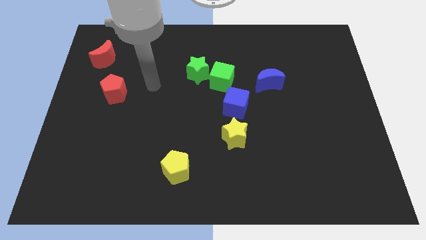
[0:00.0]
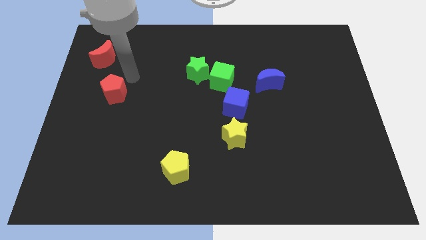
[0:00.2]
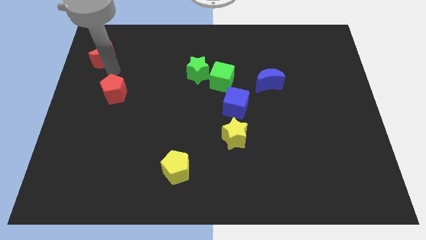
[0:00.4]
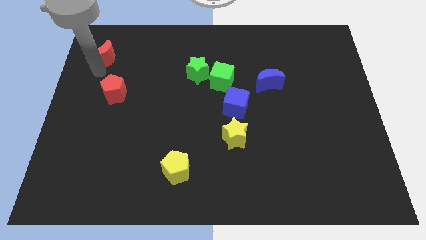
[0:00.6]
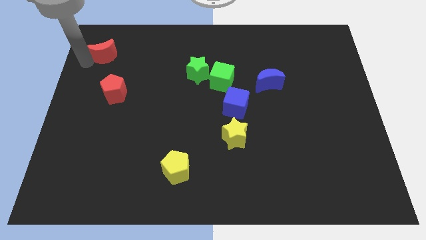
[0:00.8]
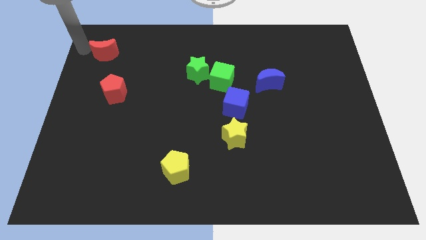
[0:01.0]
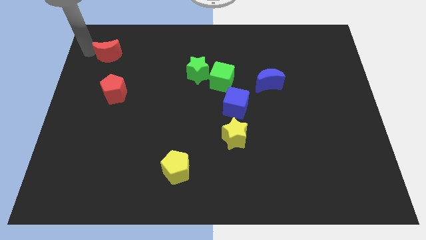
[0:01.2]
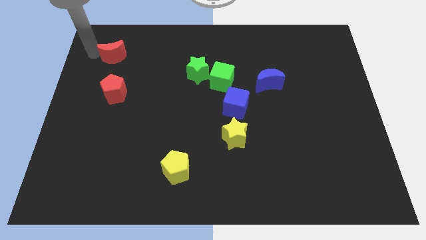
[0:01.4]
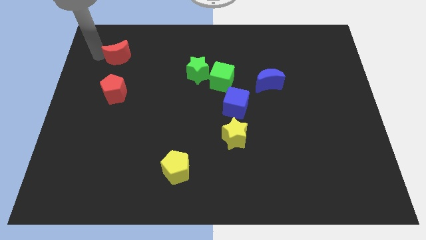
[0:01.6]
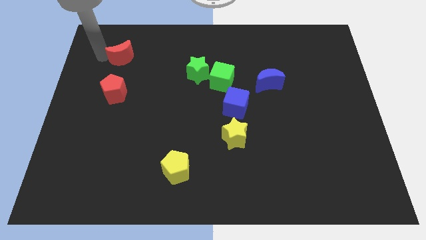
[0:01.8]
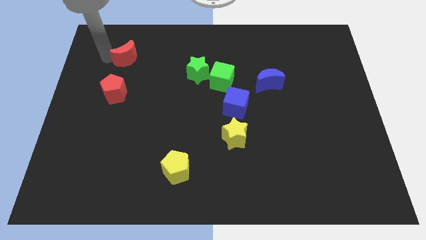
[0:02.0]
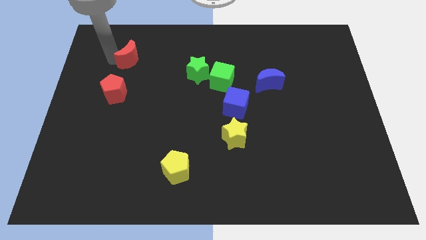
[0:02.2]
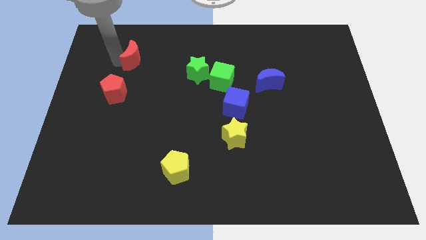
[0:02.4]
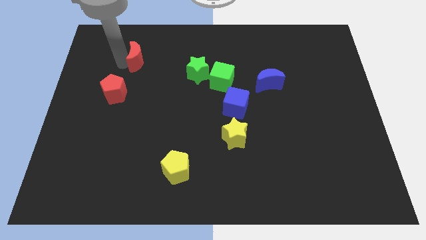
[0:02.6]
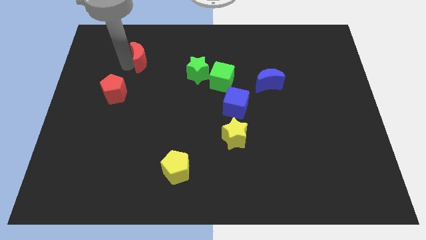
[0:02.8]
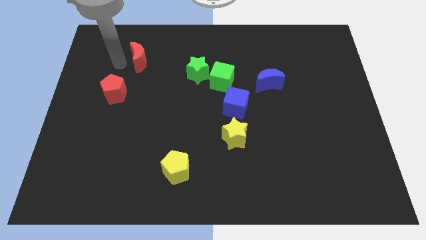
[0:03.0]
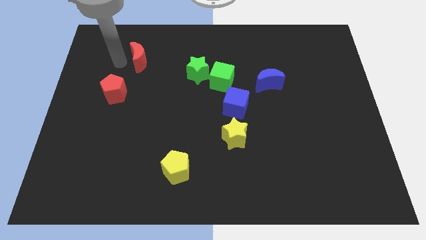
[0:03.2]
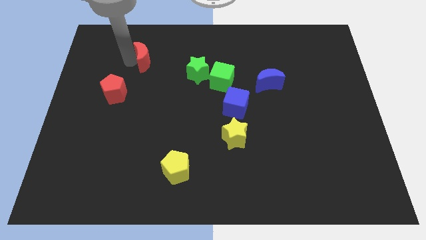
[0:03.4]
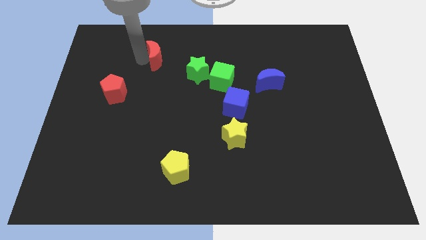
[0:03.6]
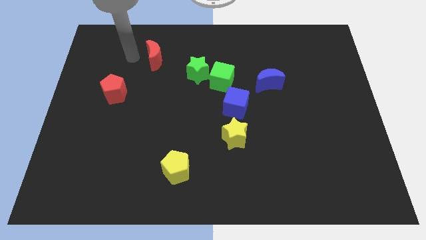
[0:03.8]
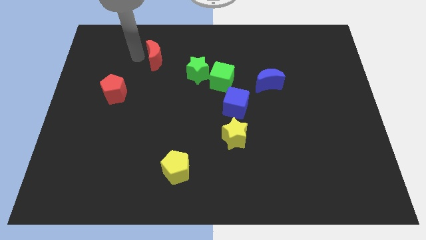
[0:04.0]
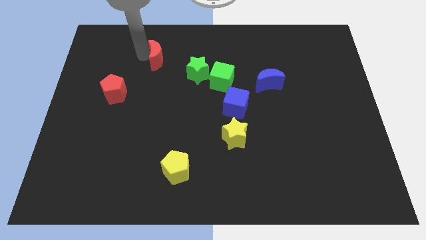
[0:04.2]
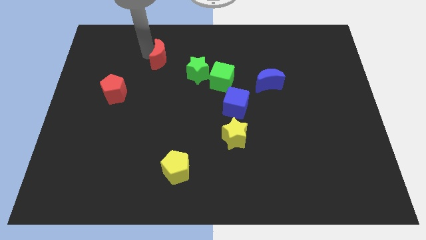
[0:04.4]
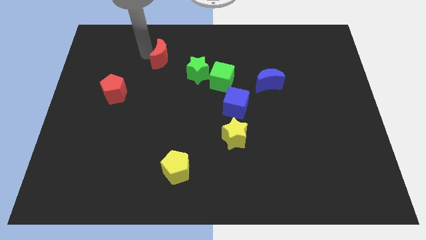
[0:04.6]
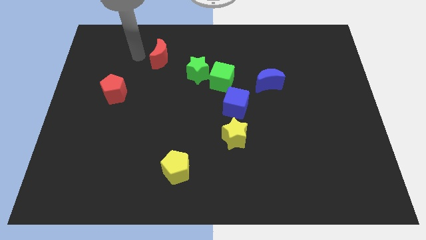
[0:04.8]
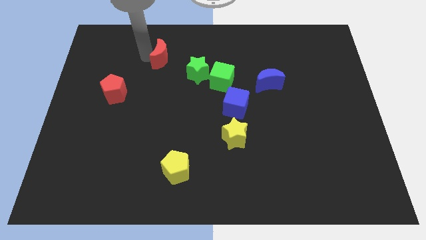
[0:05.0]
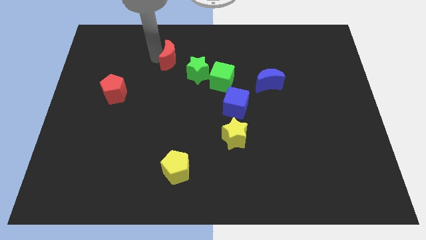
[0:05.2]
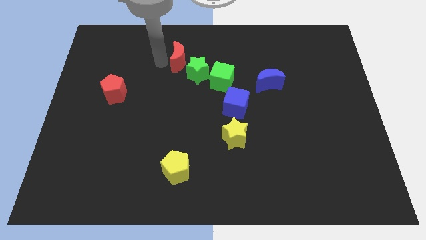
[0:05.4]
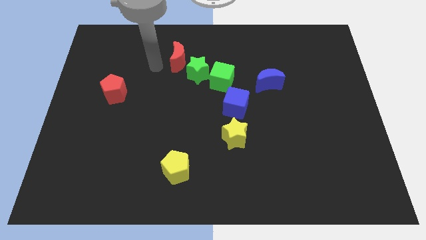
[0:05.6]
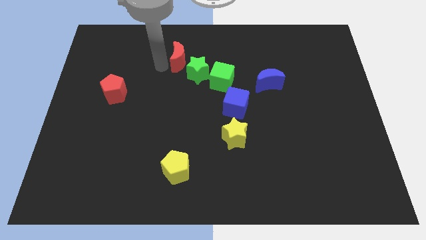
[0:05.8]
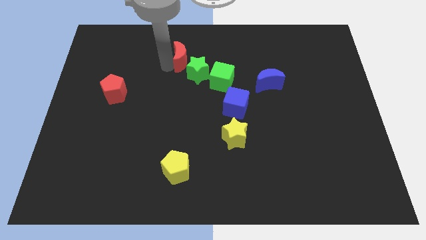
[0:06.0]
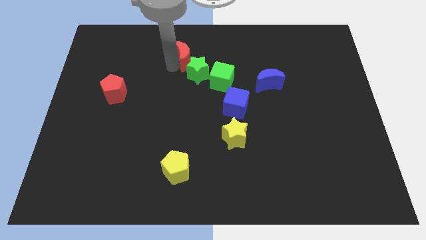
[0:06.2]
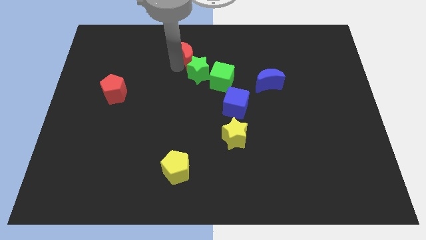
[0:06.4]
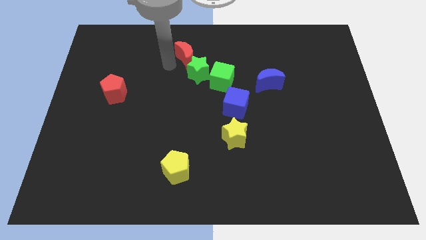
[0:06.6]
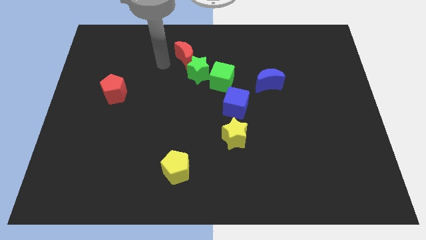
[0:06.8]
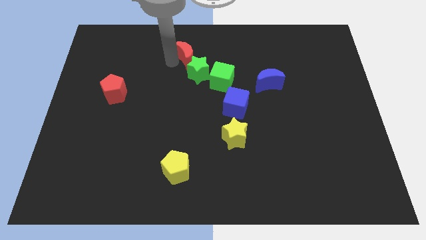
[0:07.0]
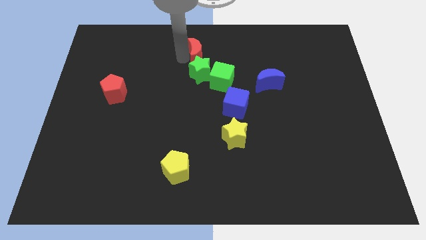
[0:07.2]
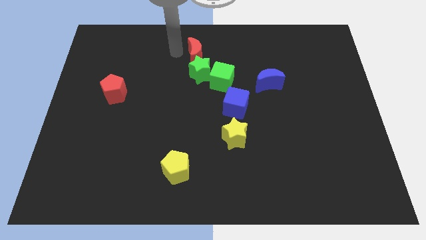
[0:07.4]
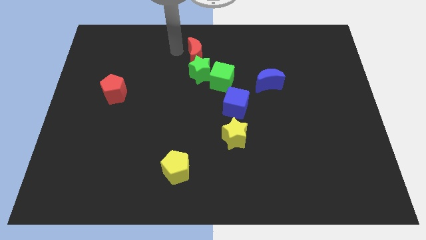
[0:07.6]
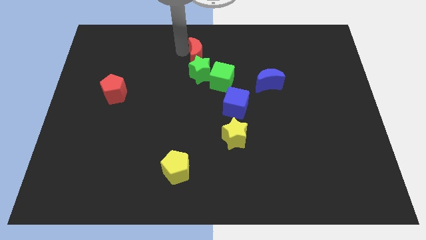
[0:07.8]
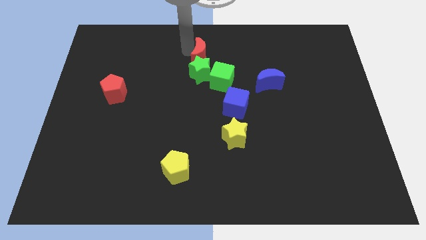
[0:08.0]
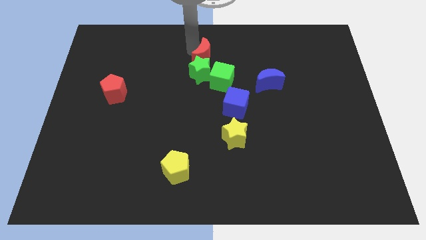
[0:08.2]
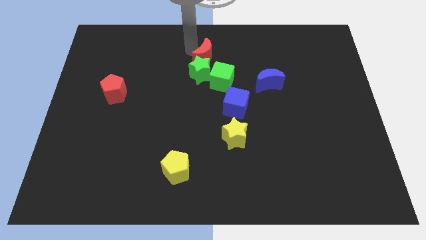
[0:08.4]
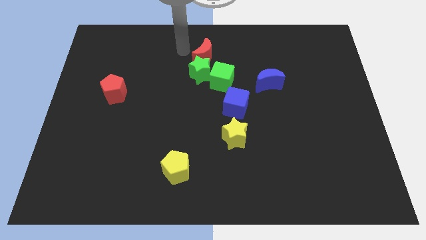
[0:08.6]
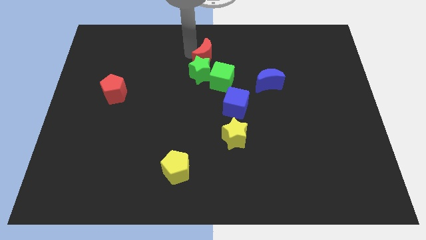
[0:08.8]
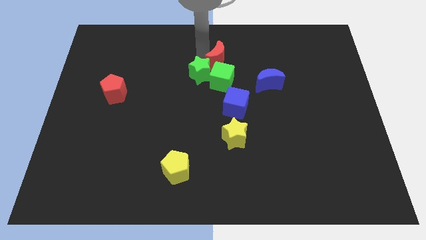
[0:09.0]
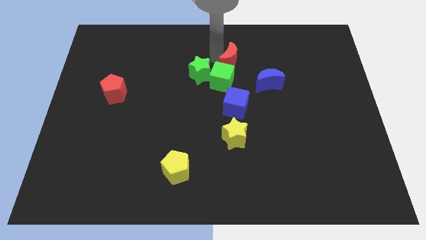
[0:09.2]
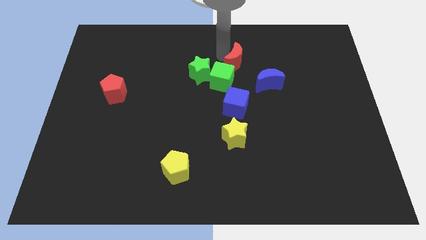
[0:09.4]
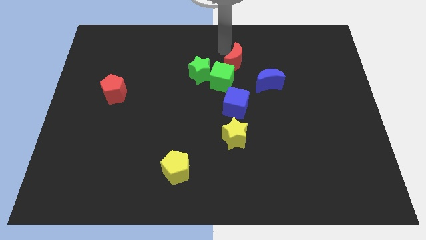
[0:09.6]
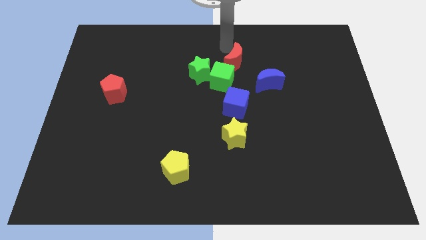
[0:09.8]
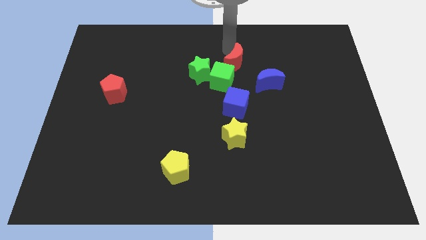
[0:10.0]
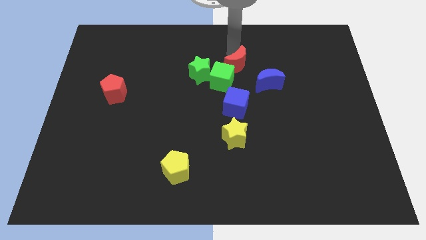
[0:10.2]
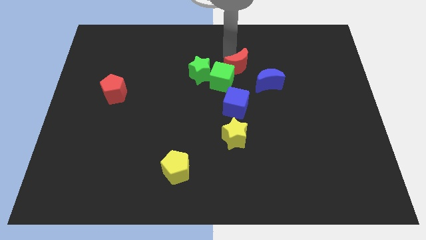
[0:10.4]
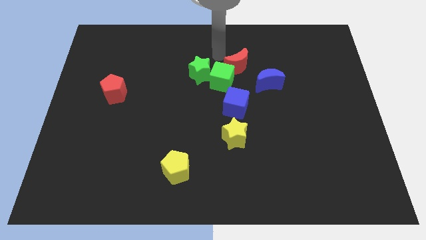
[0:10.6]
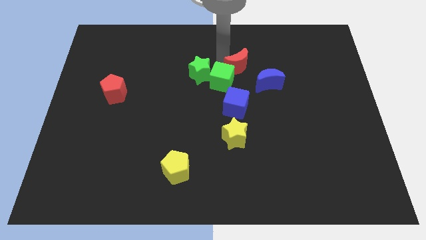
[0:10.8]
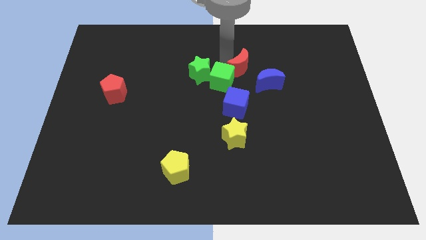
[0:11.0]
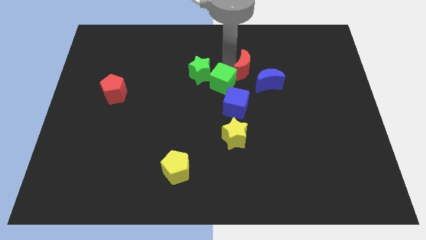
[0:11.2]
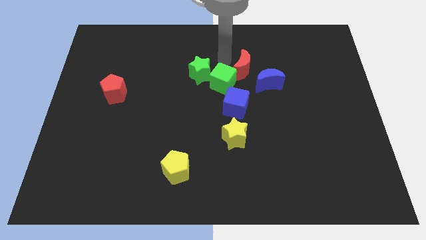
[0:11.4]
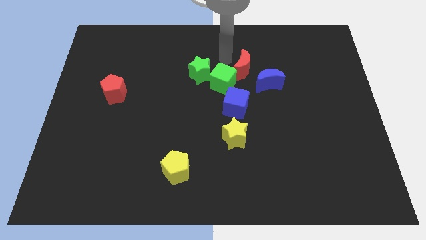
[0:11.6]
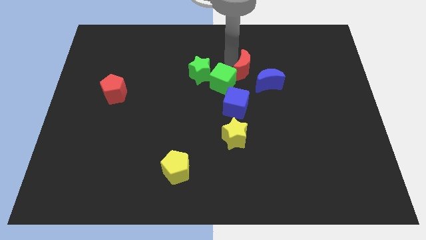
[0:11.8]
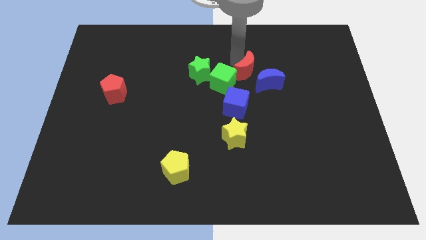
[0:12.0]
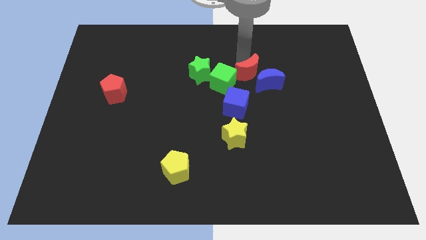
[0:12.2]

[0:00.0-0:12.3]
move the red moon towards the blue moon

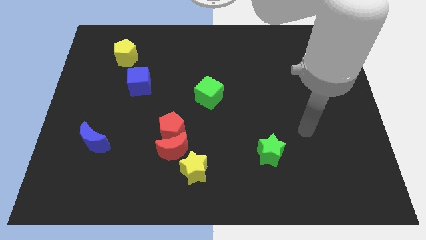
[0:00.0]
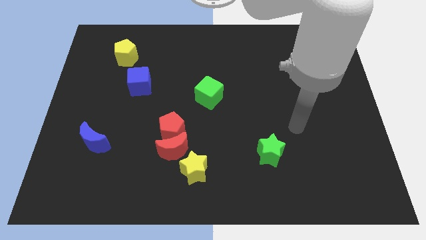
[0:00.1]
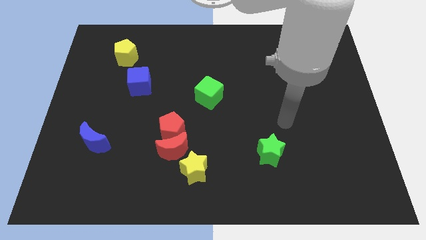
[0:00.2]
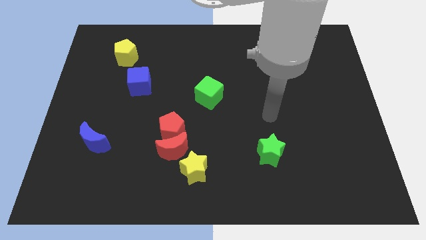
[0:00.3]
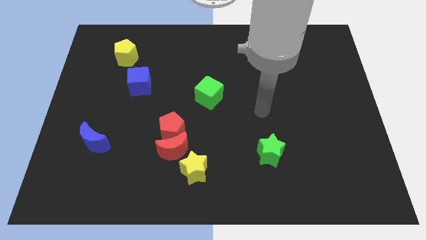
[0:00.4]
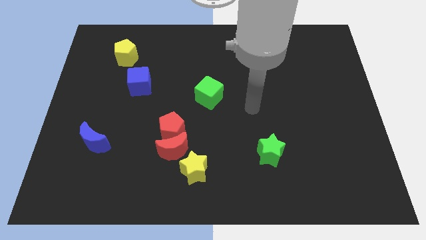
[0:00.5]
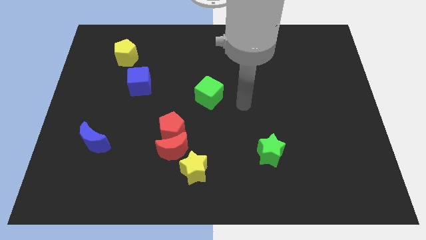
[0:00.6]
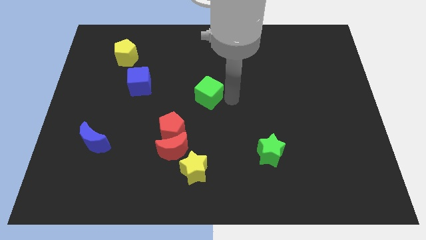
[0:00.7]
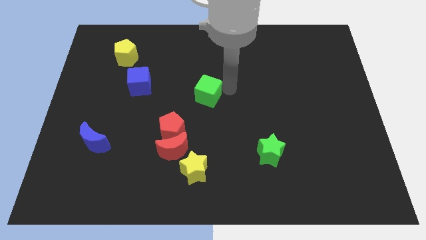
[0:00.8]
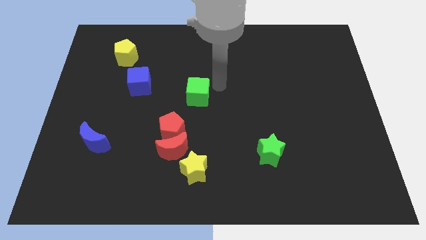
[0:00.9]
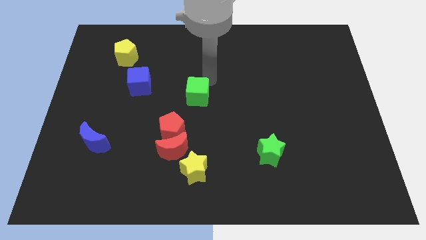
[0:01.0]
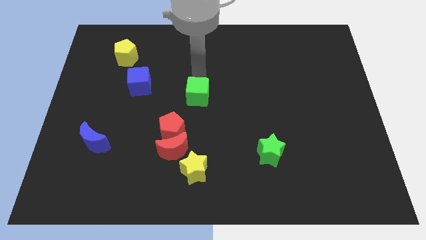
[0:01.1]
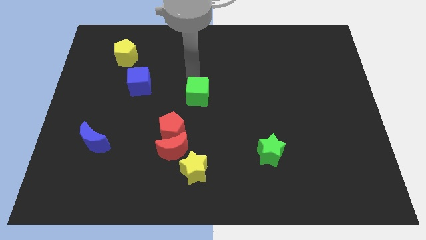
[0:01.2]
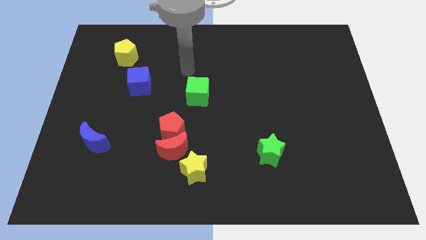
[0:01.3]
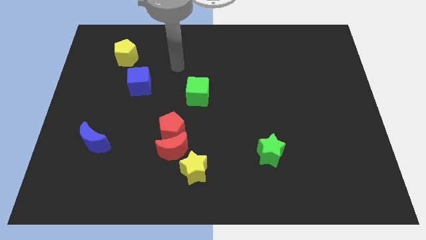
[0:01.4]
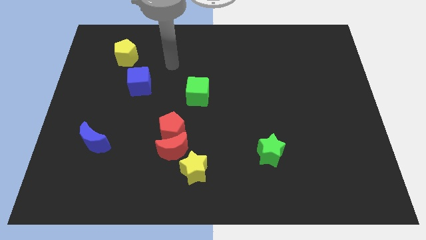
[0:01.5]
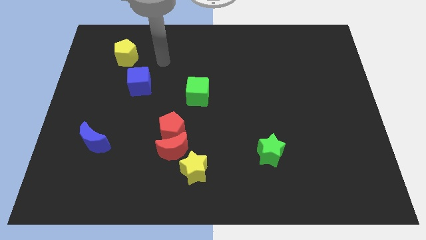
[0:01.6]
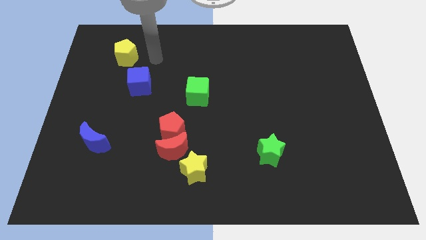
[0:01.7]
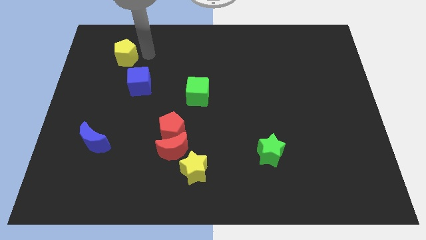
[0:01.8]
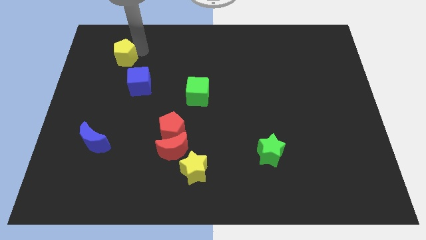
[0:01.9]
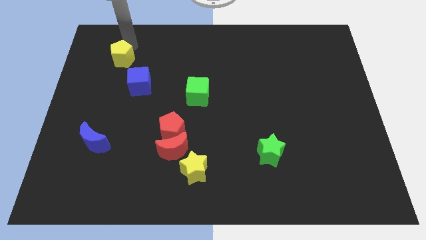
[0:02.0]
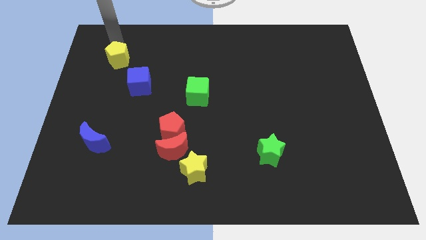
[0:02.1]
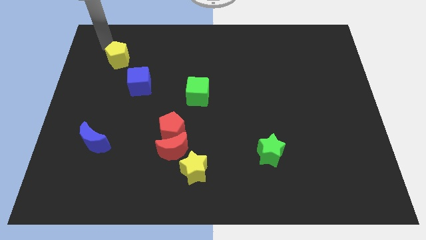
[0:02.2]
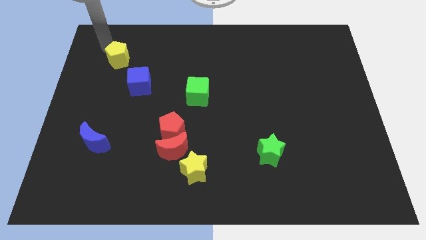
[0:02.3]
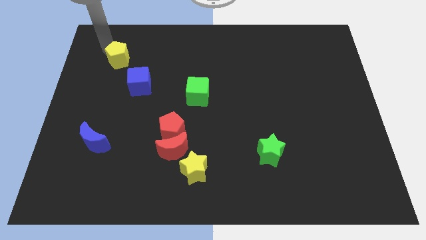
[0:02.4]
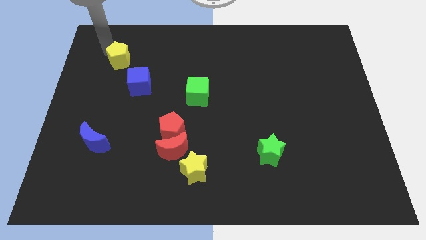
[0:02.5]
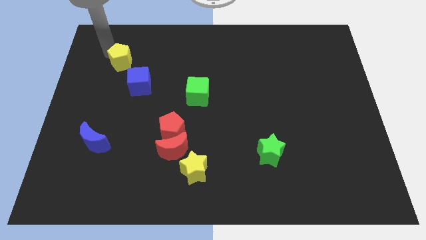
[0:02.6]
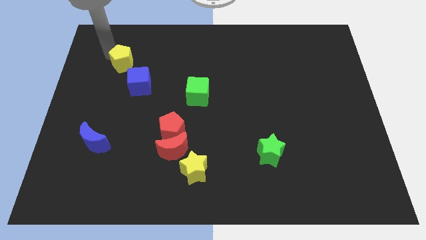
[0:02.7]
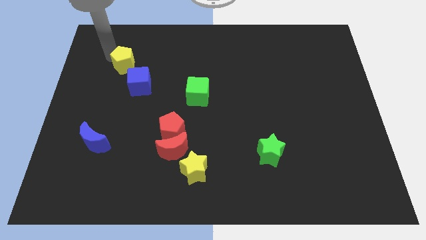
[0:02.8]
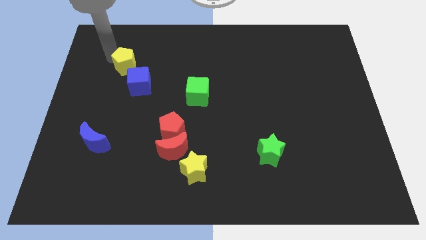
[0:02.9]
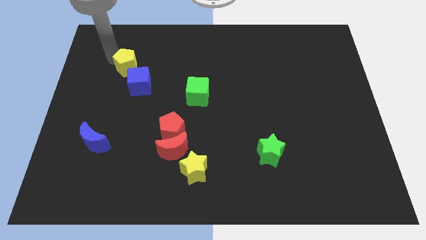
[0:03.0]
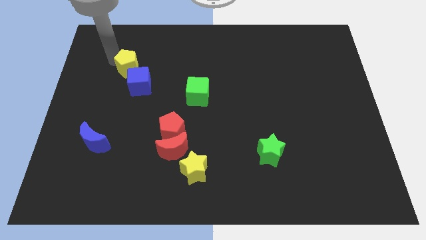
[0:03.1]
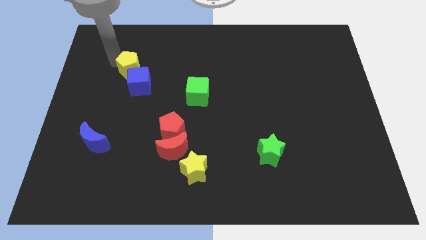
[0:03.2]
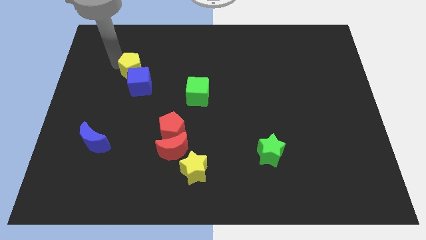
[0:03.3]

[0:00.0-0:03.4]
push the yellow pentagon next to the blue cube
